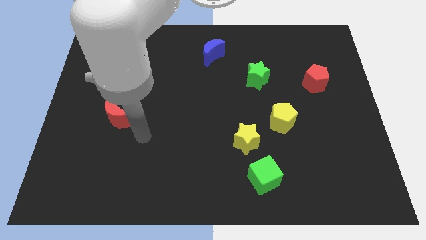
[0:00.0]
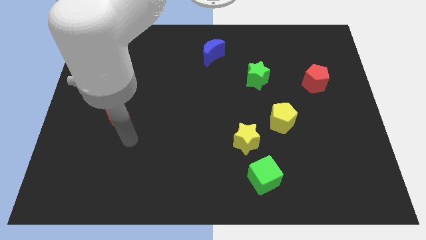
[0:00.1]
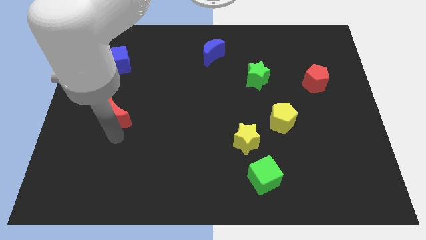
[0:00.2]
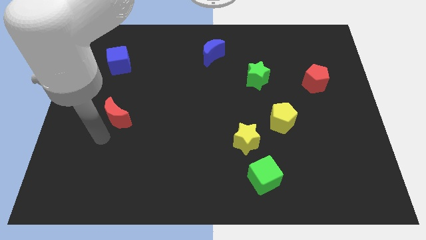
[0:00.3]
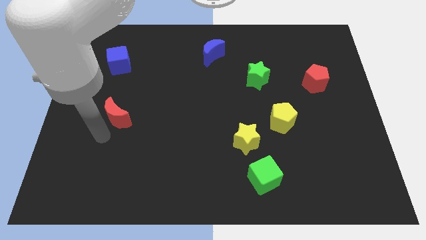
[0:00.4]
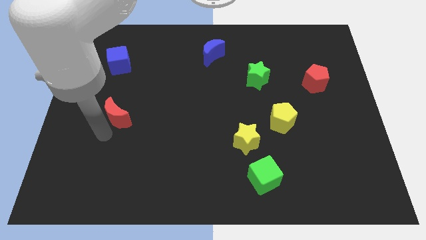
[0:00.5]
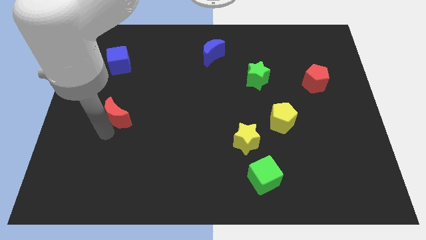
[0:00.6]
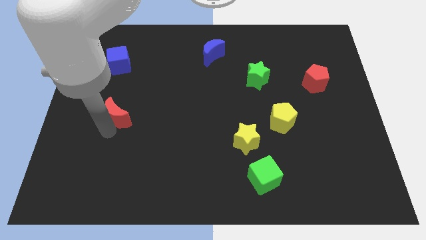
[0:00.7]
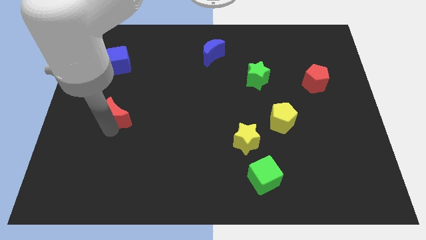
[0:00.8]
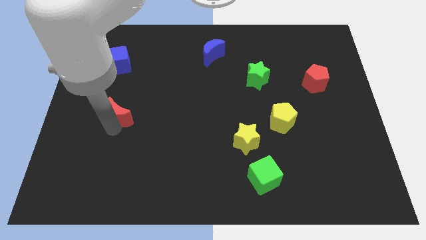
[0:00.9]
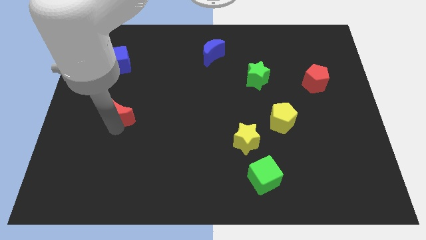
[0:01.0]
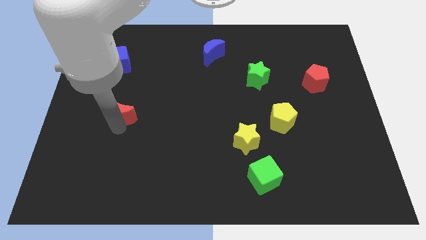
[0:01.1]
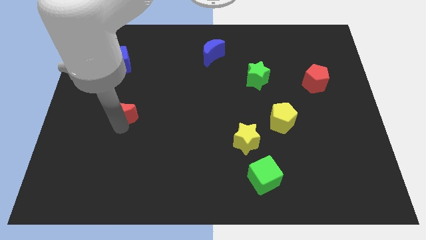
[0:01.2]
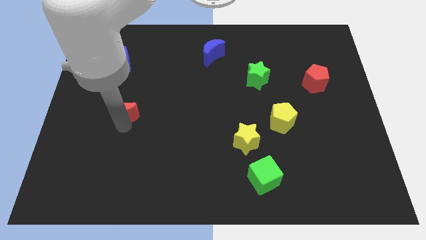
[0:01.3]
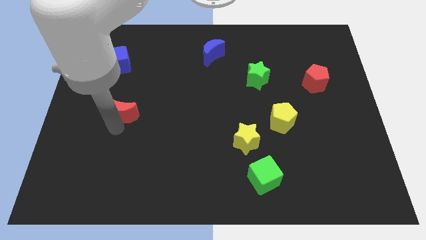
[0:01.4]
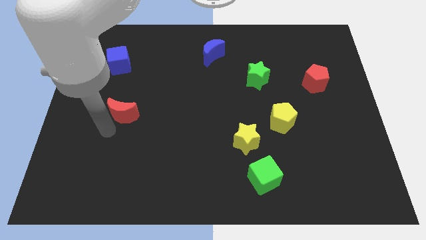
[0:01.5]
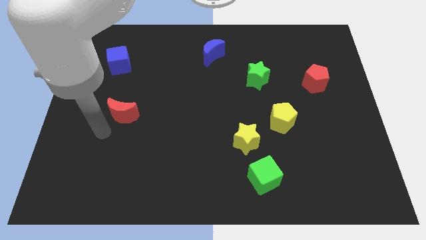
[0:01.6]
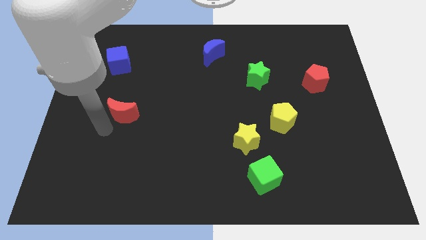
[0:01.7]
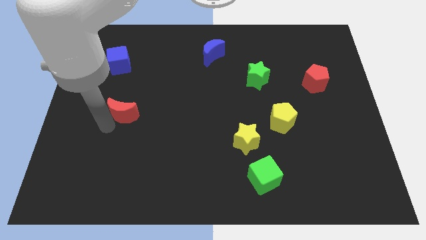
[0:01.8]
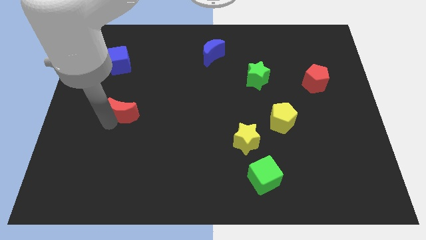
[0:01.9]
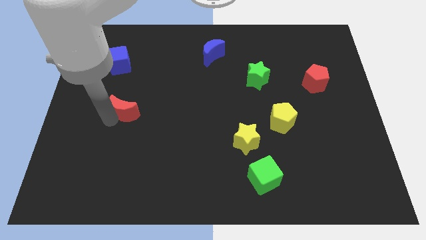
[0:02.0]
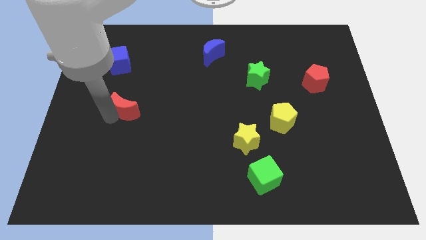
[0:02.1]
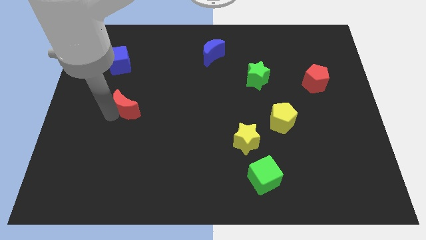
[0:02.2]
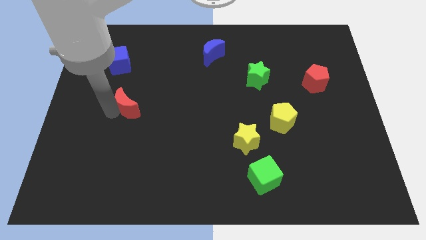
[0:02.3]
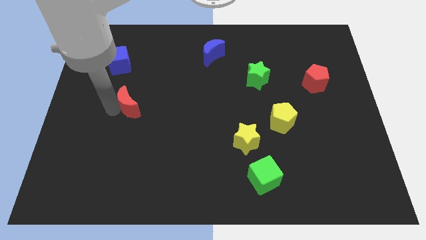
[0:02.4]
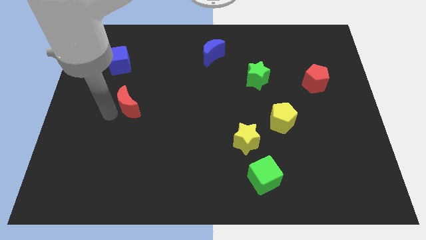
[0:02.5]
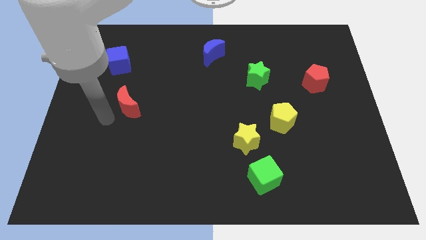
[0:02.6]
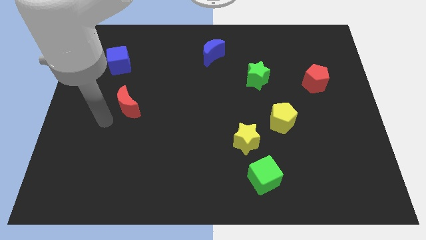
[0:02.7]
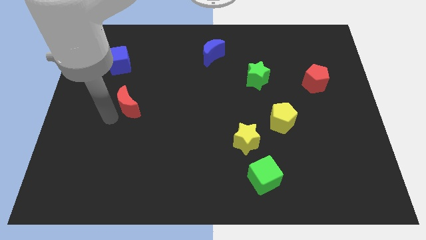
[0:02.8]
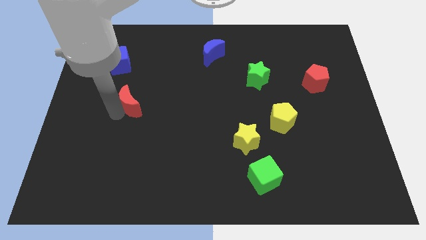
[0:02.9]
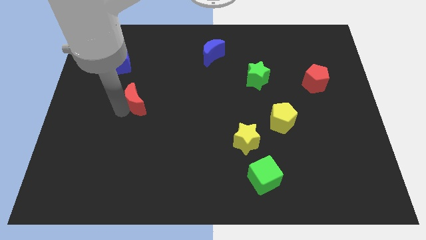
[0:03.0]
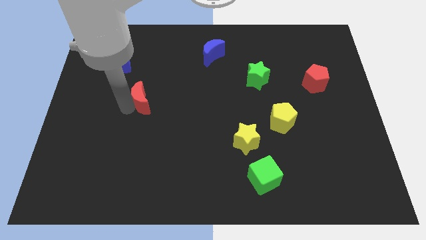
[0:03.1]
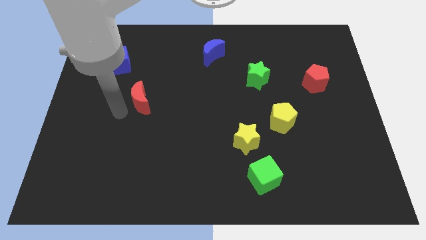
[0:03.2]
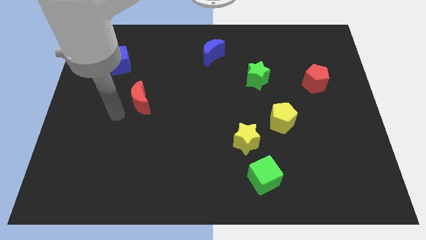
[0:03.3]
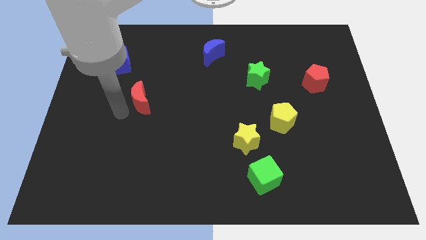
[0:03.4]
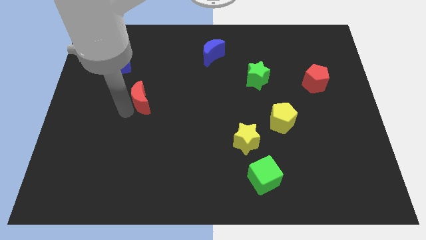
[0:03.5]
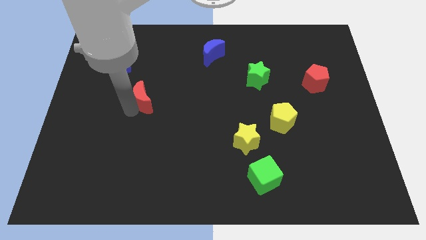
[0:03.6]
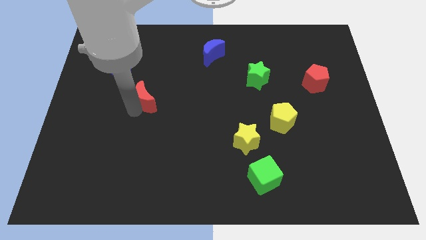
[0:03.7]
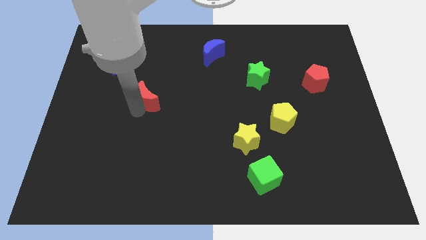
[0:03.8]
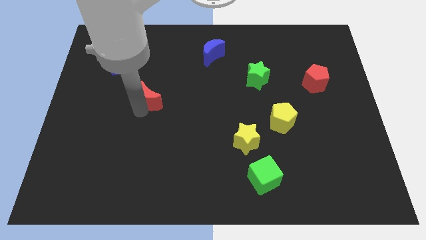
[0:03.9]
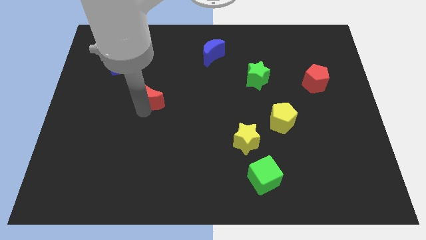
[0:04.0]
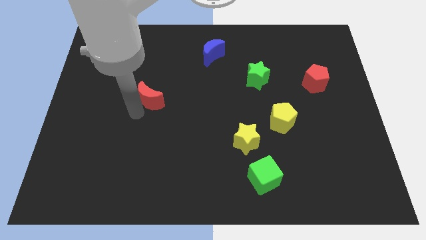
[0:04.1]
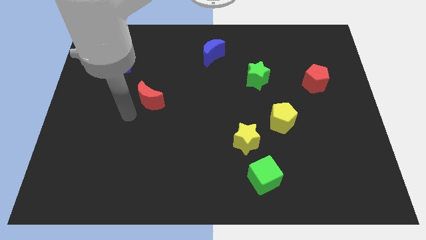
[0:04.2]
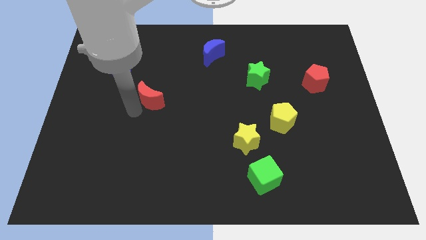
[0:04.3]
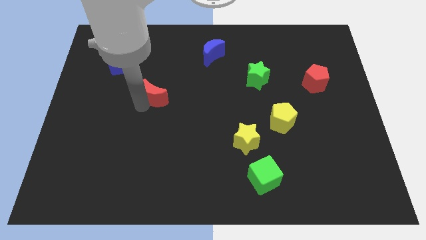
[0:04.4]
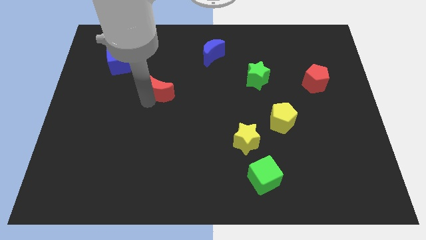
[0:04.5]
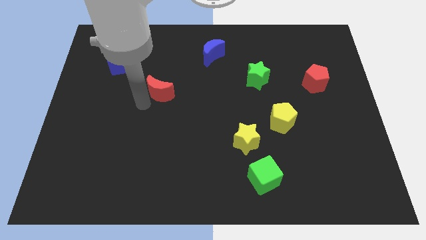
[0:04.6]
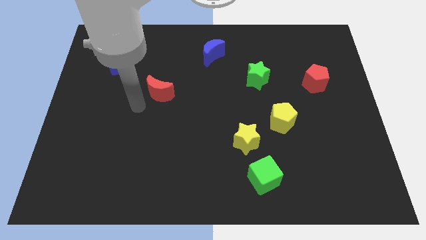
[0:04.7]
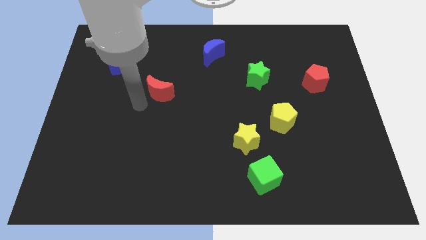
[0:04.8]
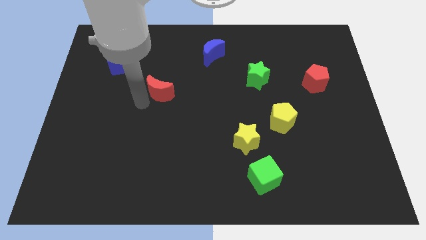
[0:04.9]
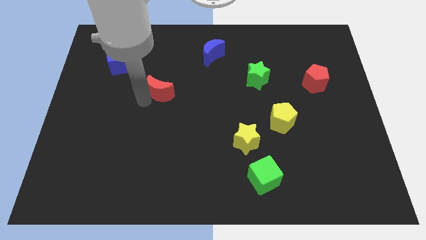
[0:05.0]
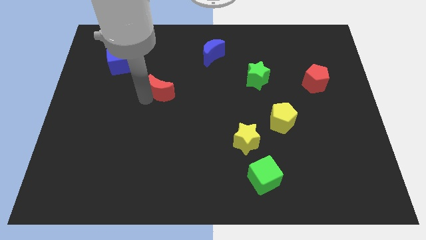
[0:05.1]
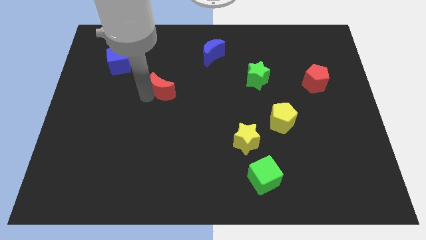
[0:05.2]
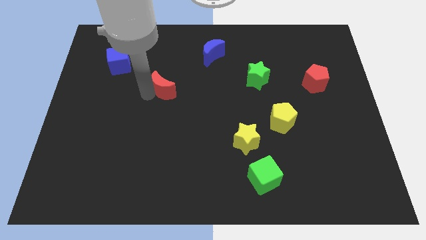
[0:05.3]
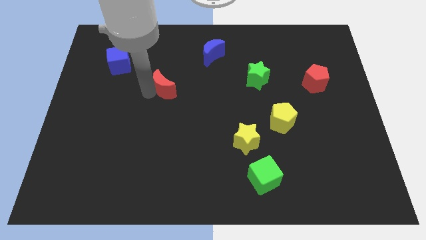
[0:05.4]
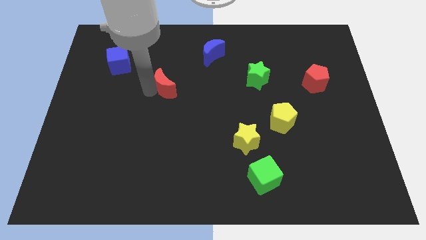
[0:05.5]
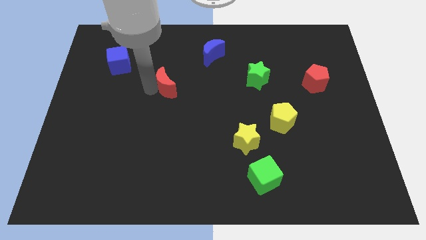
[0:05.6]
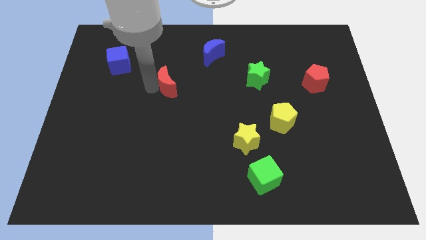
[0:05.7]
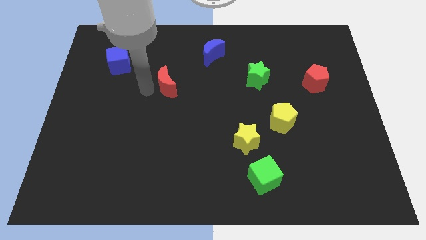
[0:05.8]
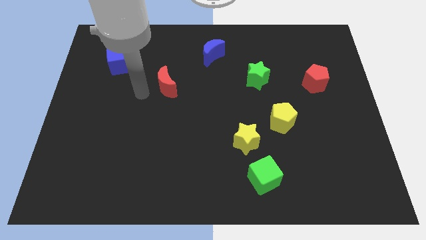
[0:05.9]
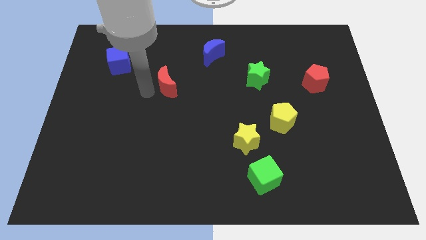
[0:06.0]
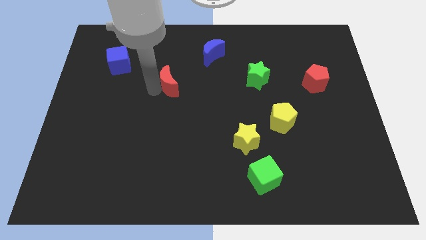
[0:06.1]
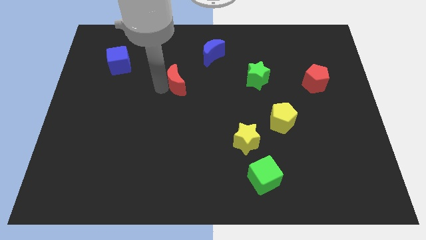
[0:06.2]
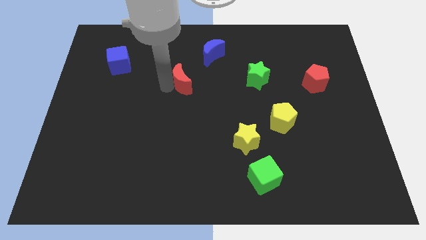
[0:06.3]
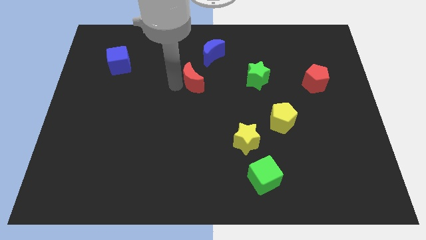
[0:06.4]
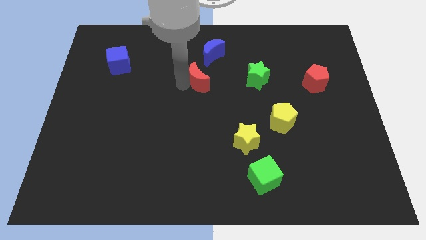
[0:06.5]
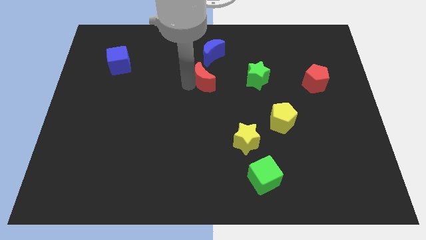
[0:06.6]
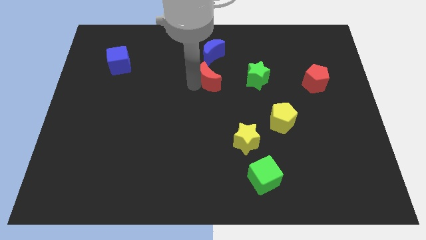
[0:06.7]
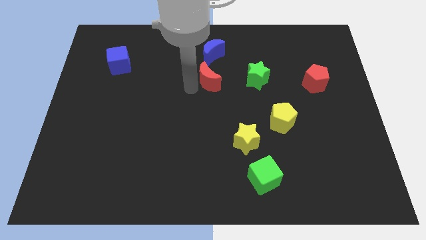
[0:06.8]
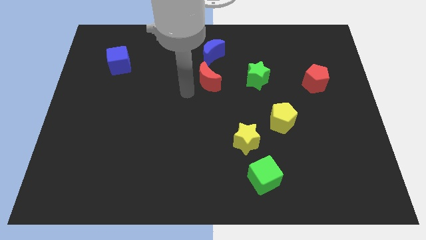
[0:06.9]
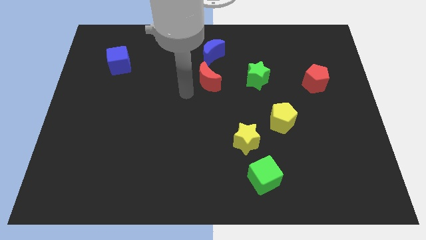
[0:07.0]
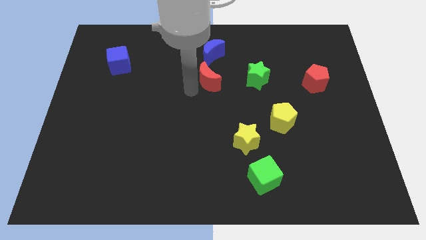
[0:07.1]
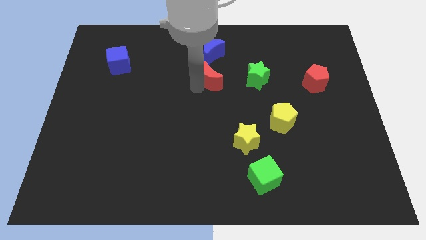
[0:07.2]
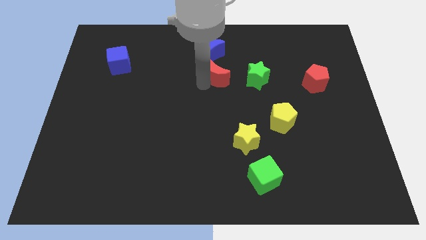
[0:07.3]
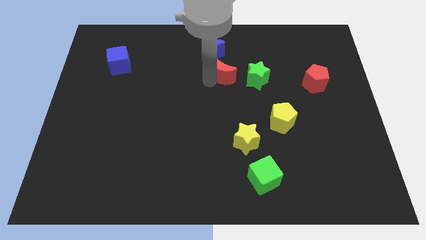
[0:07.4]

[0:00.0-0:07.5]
put the red moon to the bottom right side of the blue moon
